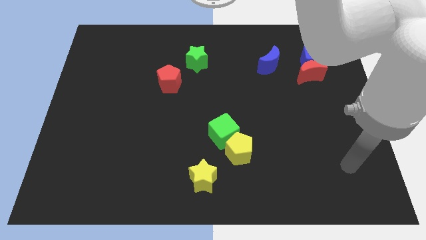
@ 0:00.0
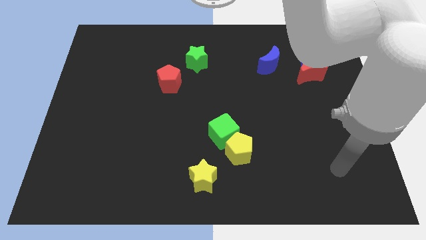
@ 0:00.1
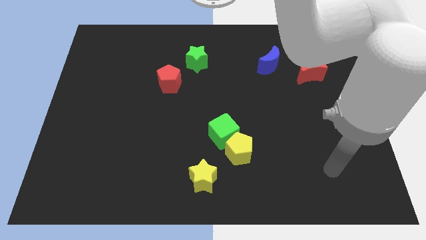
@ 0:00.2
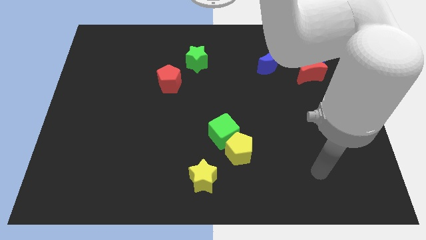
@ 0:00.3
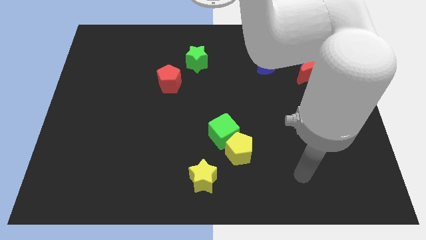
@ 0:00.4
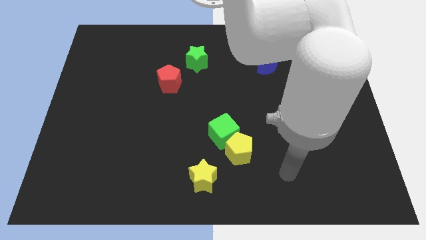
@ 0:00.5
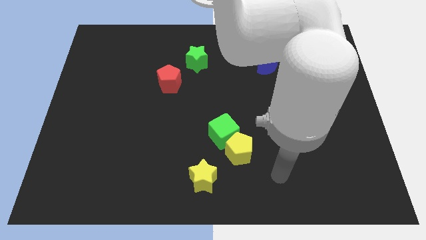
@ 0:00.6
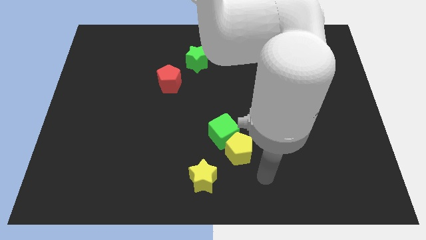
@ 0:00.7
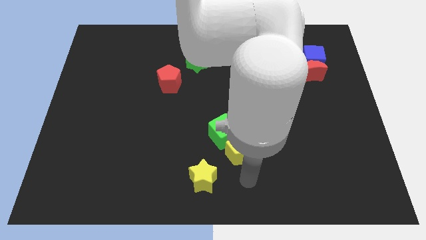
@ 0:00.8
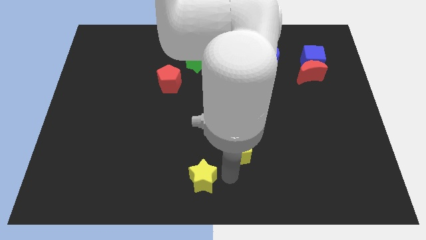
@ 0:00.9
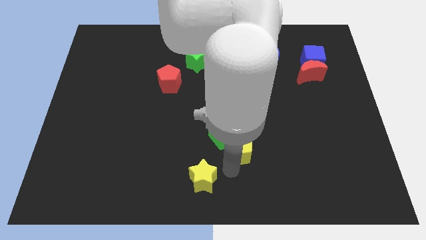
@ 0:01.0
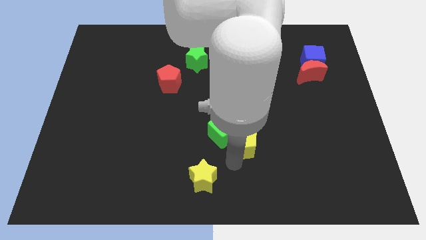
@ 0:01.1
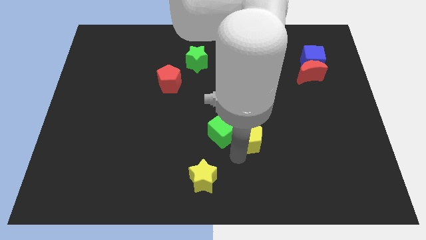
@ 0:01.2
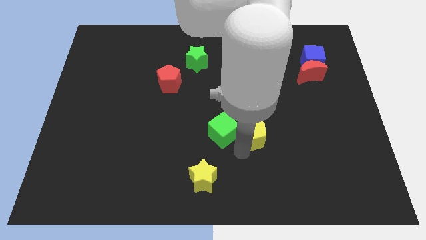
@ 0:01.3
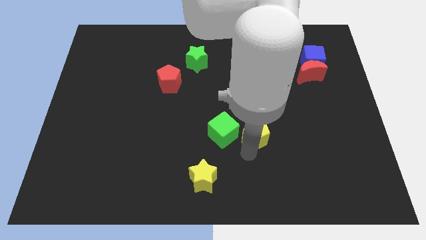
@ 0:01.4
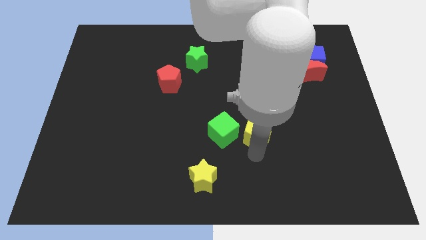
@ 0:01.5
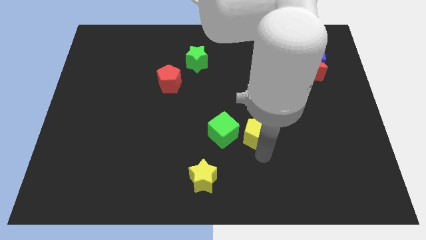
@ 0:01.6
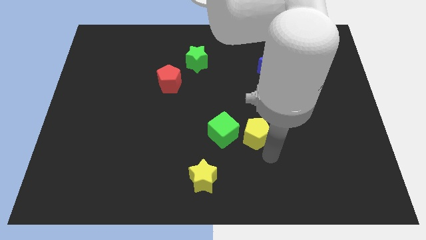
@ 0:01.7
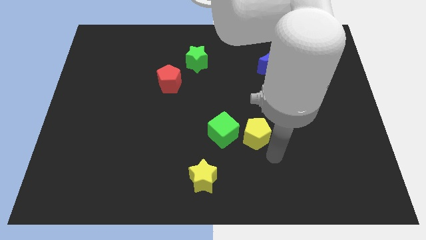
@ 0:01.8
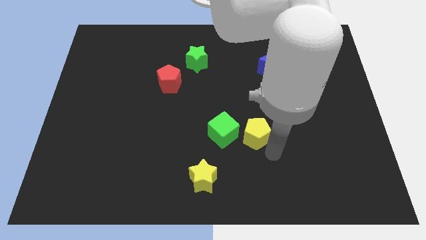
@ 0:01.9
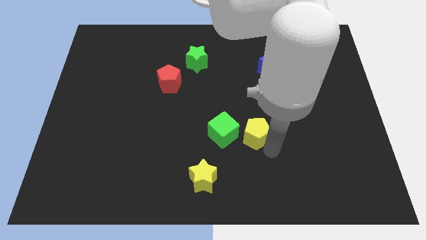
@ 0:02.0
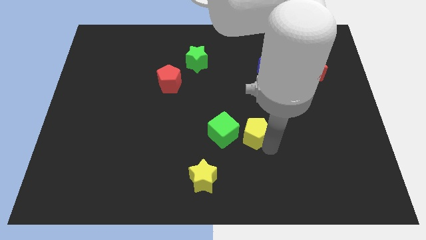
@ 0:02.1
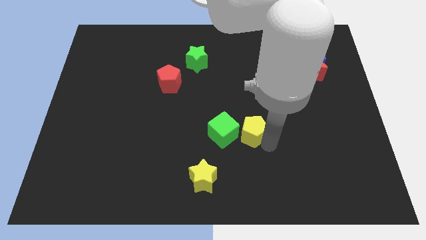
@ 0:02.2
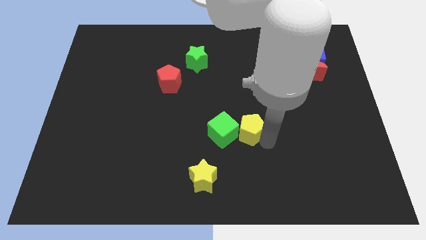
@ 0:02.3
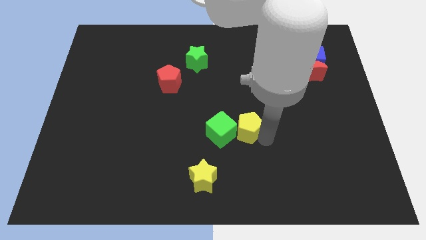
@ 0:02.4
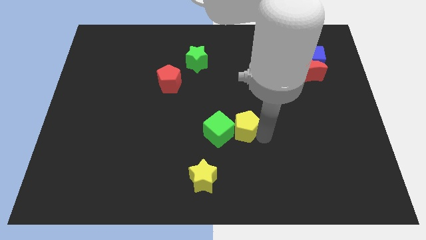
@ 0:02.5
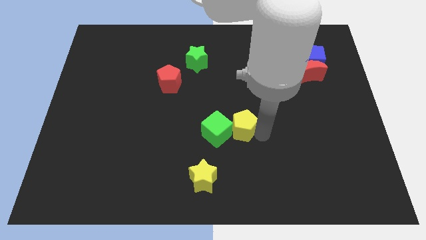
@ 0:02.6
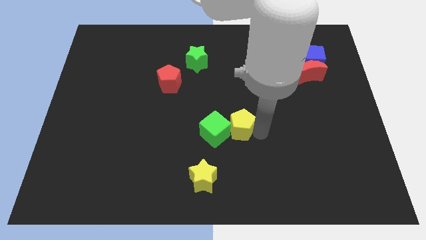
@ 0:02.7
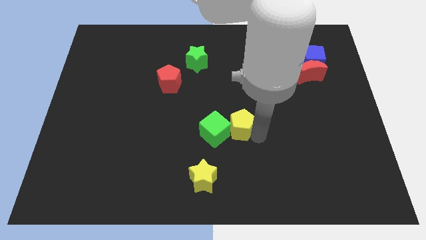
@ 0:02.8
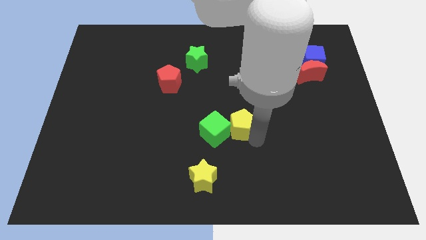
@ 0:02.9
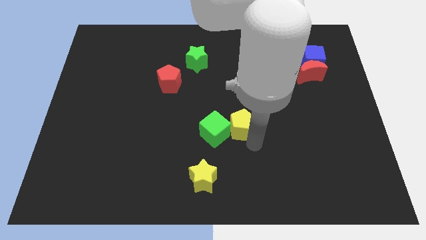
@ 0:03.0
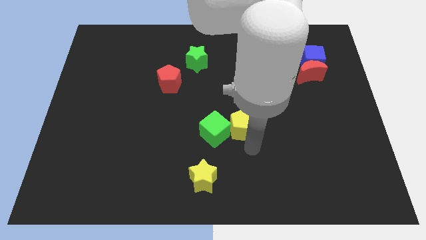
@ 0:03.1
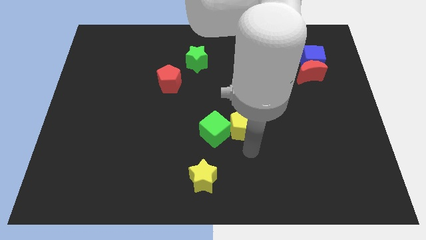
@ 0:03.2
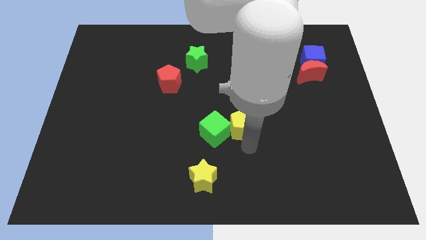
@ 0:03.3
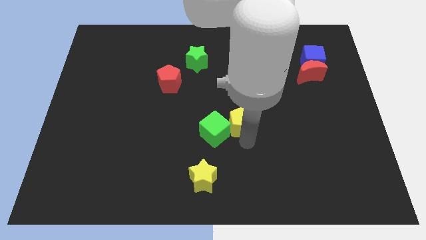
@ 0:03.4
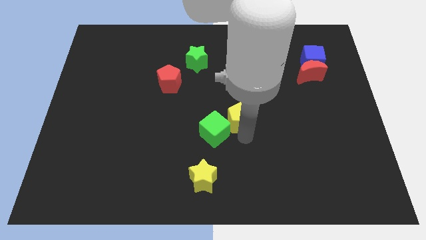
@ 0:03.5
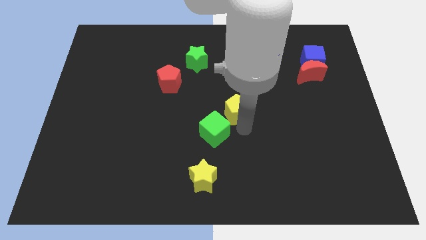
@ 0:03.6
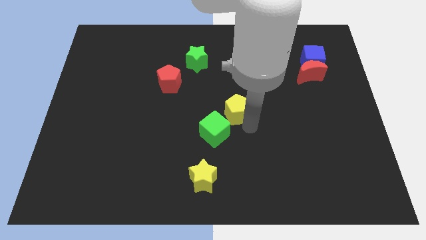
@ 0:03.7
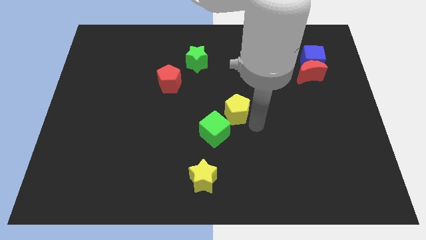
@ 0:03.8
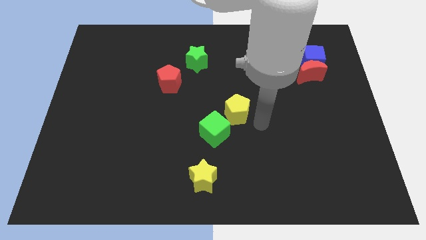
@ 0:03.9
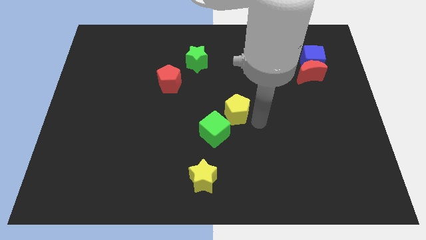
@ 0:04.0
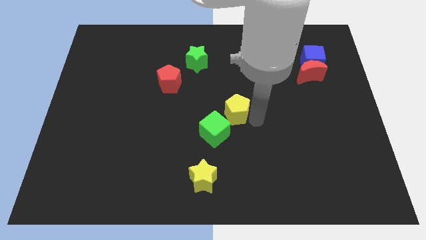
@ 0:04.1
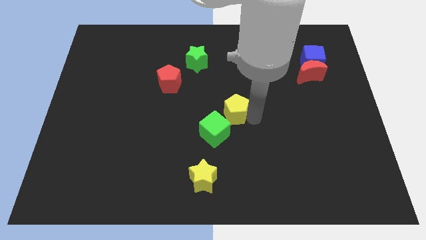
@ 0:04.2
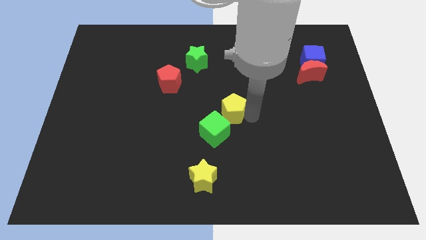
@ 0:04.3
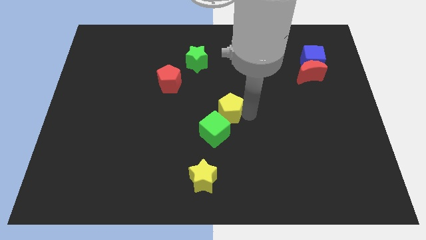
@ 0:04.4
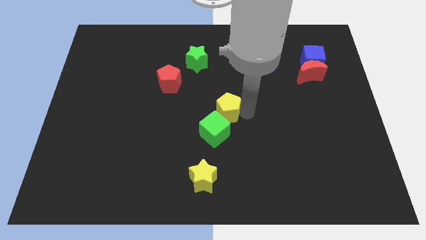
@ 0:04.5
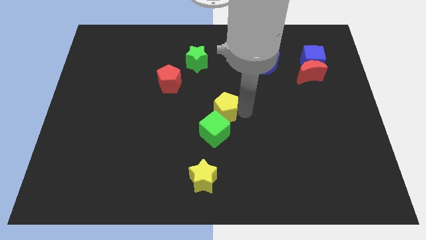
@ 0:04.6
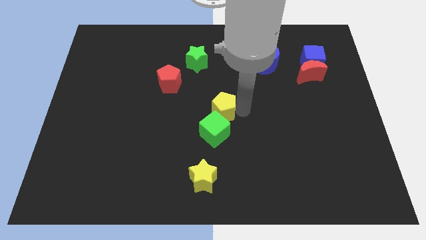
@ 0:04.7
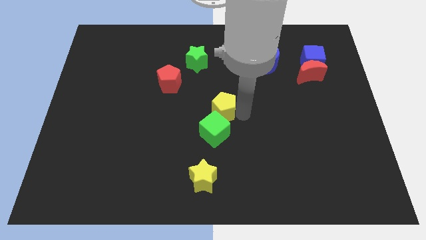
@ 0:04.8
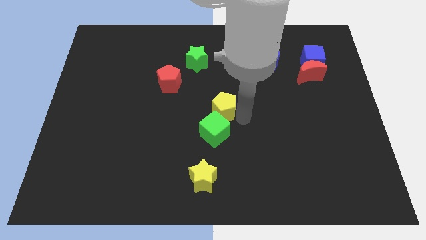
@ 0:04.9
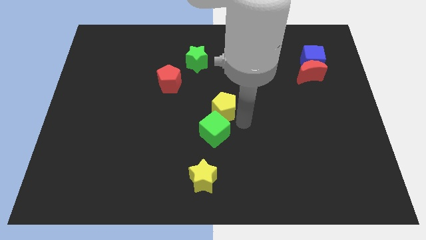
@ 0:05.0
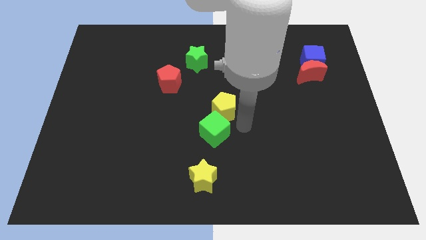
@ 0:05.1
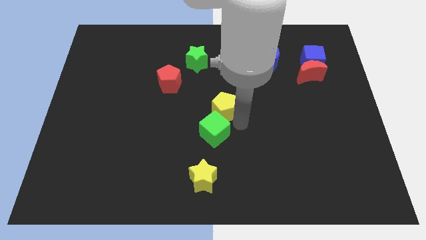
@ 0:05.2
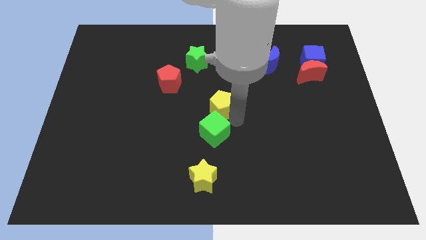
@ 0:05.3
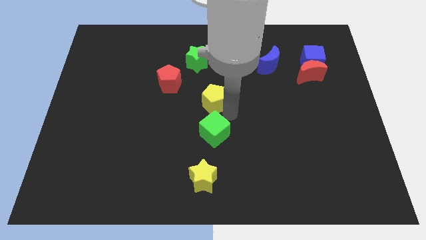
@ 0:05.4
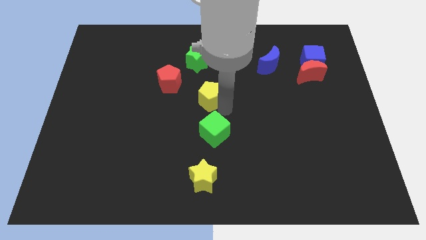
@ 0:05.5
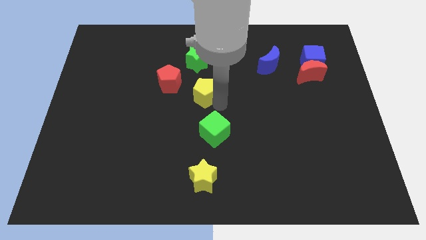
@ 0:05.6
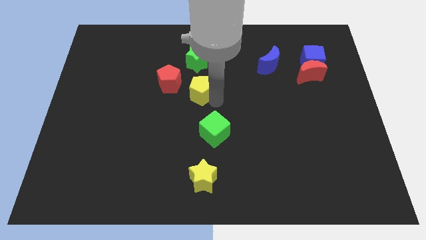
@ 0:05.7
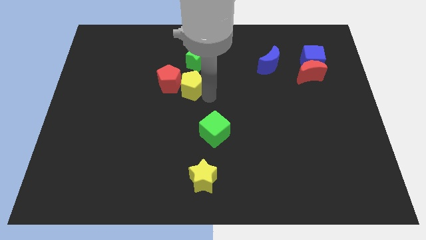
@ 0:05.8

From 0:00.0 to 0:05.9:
slide the yellow pentagon towards the red pentagon

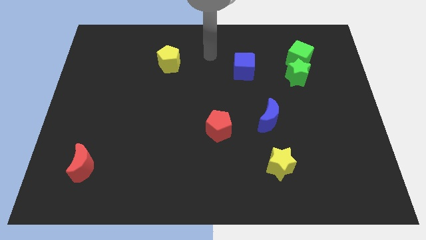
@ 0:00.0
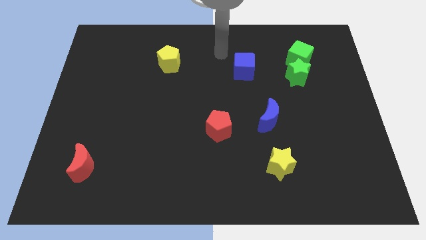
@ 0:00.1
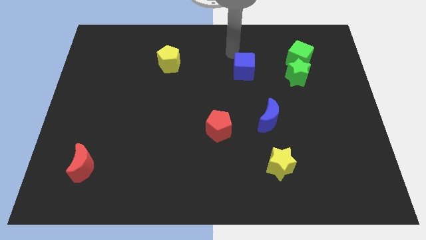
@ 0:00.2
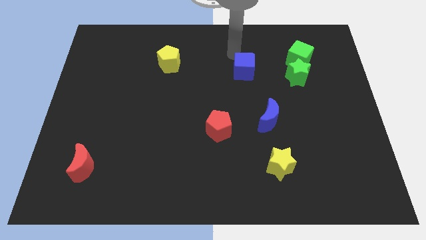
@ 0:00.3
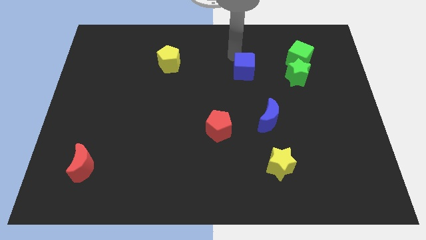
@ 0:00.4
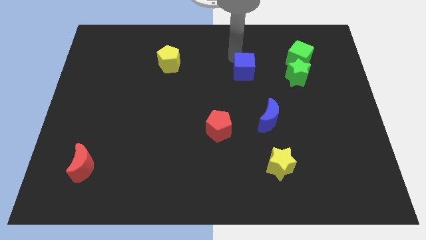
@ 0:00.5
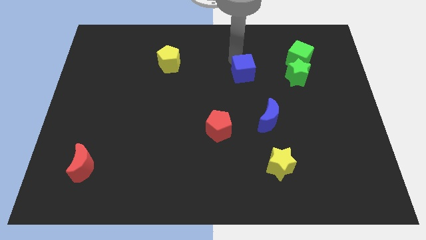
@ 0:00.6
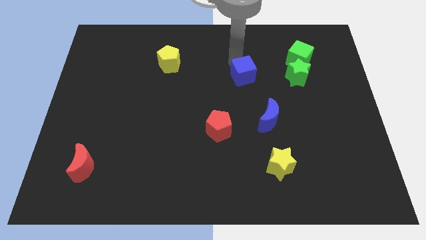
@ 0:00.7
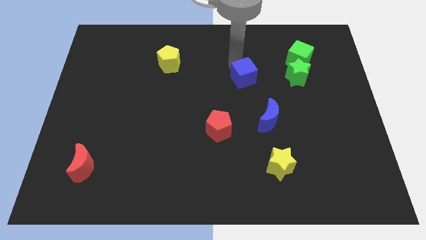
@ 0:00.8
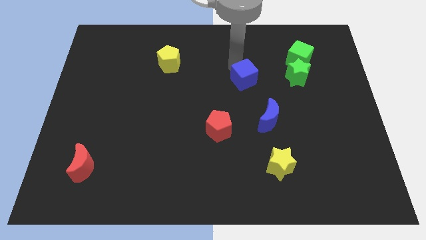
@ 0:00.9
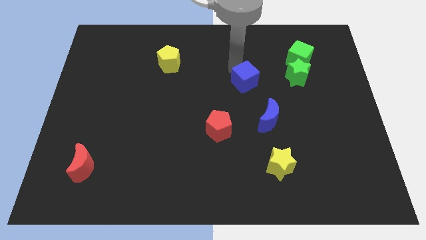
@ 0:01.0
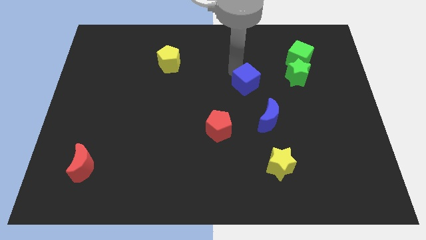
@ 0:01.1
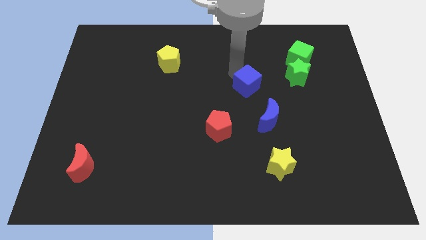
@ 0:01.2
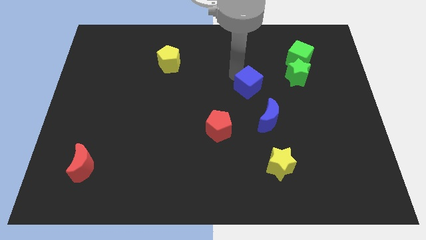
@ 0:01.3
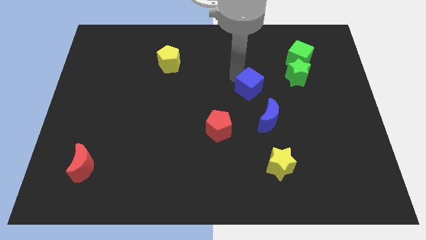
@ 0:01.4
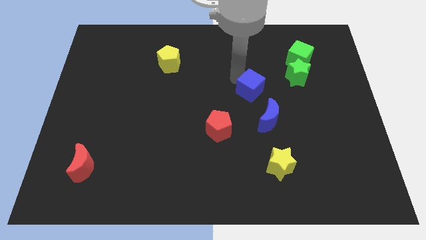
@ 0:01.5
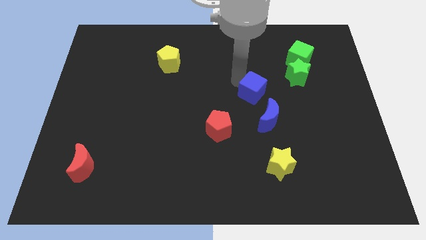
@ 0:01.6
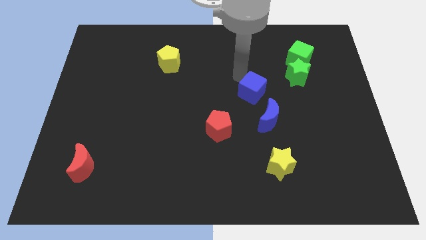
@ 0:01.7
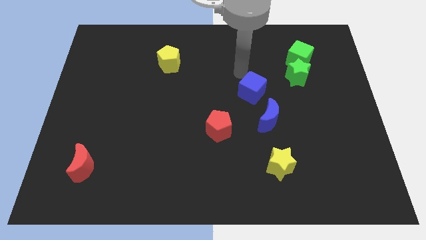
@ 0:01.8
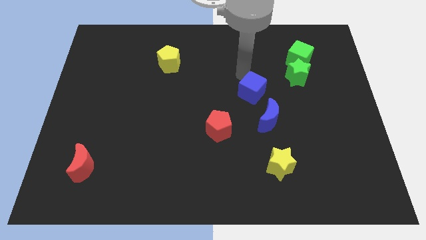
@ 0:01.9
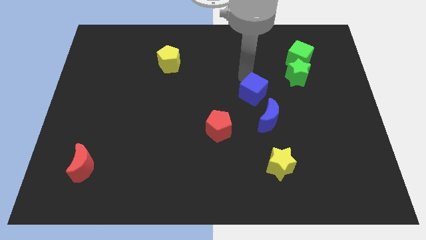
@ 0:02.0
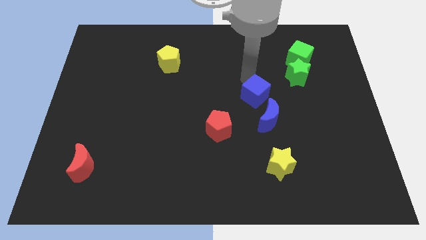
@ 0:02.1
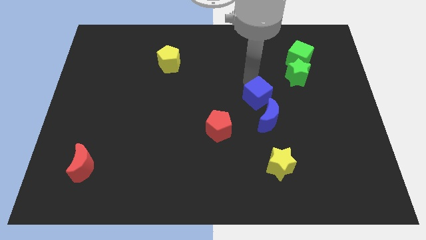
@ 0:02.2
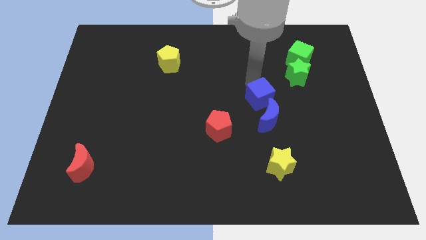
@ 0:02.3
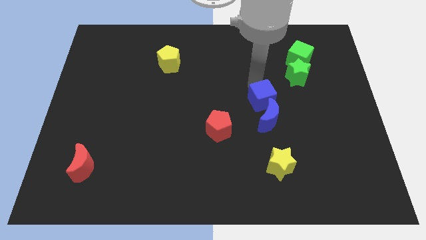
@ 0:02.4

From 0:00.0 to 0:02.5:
slide the blue cube to the blue moon
